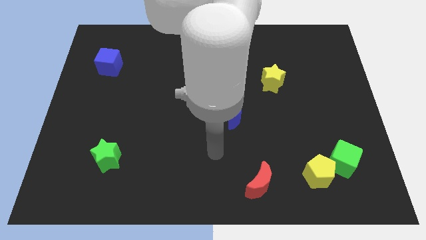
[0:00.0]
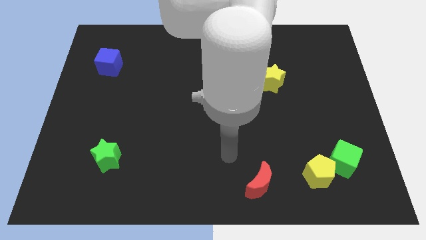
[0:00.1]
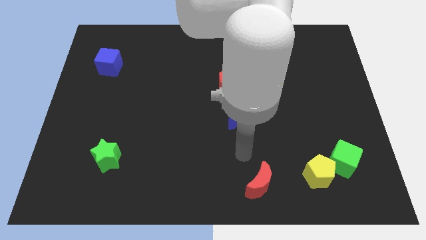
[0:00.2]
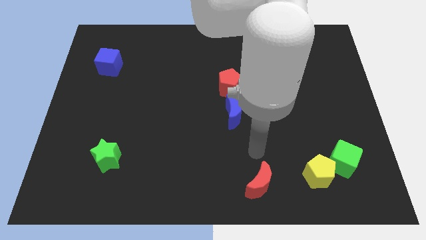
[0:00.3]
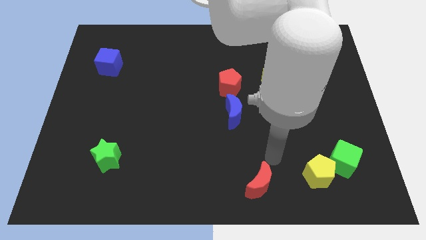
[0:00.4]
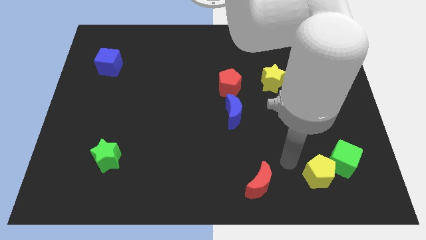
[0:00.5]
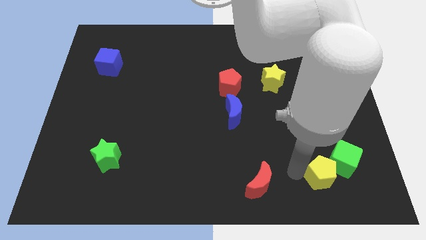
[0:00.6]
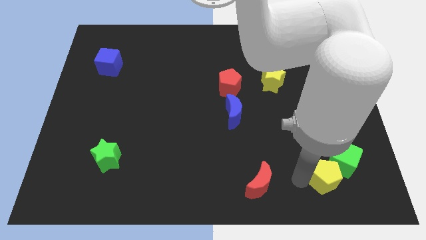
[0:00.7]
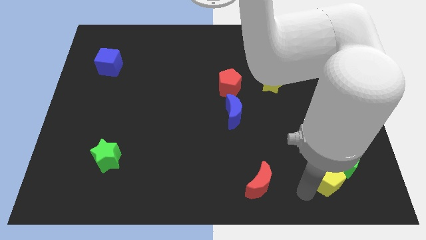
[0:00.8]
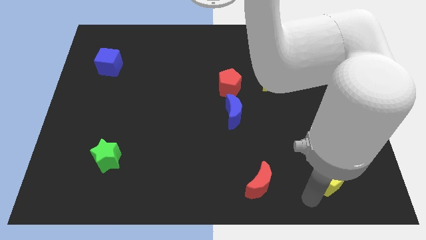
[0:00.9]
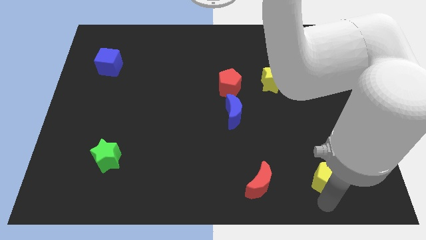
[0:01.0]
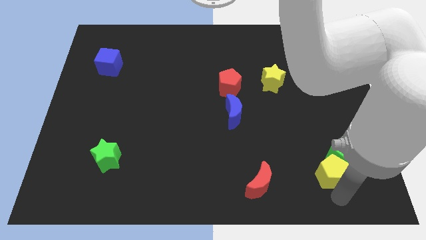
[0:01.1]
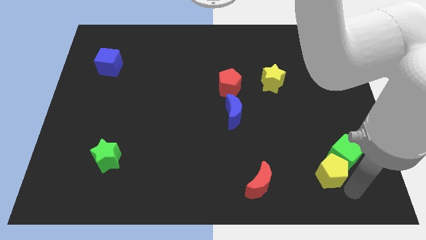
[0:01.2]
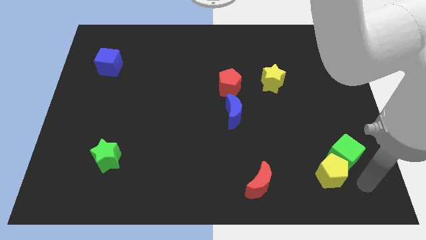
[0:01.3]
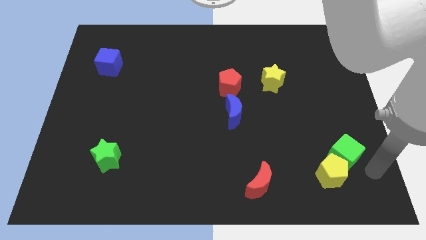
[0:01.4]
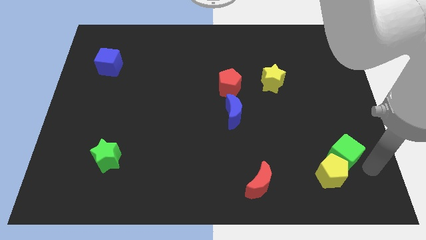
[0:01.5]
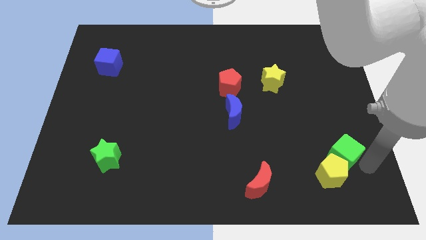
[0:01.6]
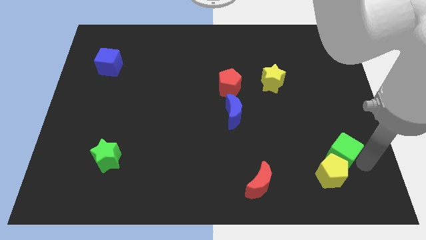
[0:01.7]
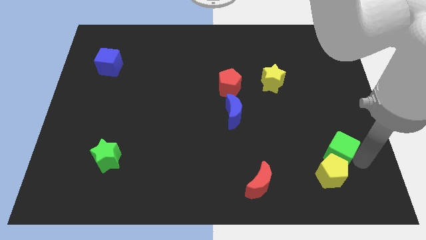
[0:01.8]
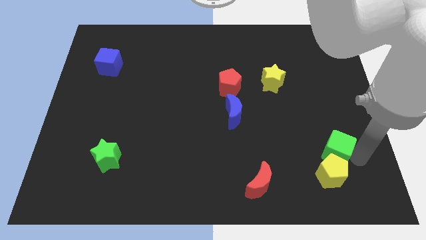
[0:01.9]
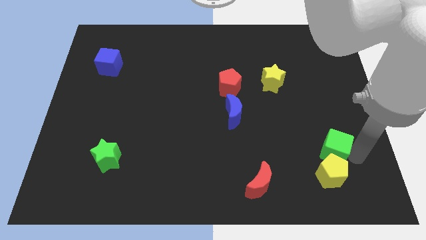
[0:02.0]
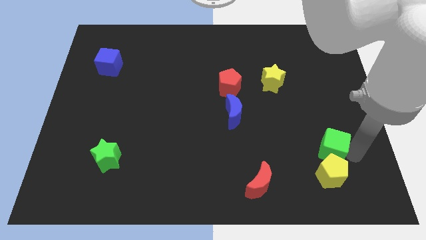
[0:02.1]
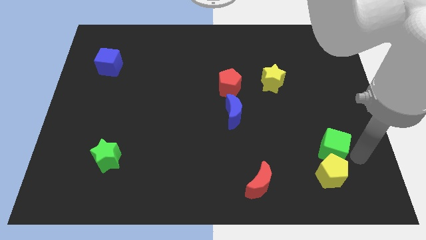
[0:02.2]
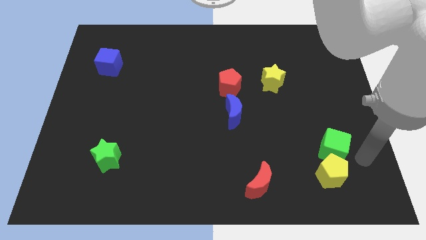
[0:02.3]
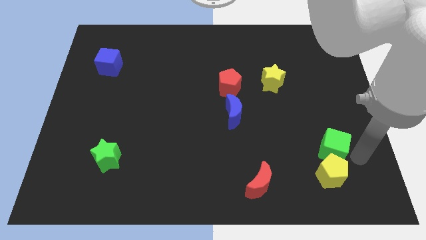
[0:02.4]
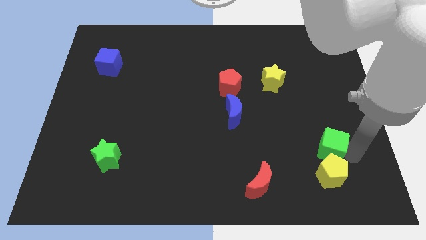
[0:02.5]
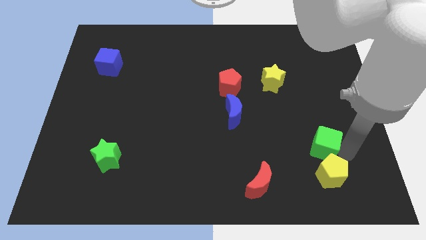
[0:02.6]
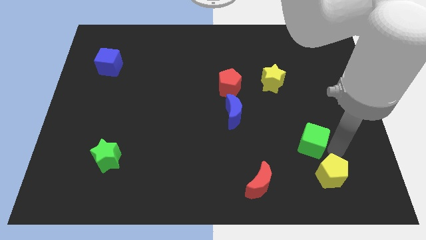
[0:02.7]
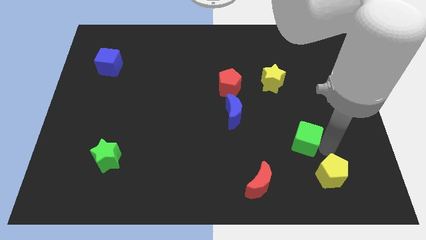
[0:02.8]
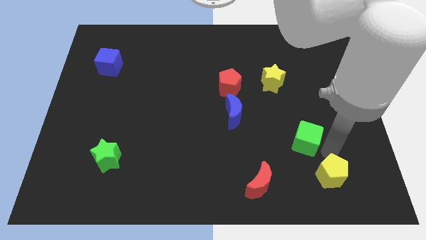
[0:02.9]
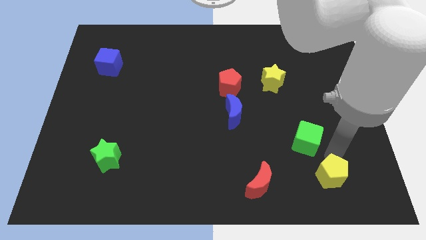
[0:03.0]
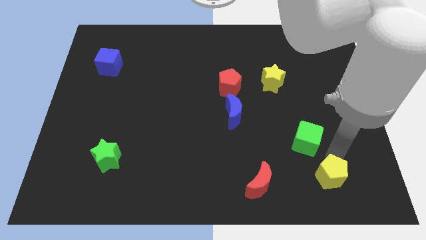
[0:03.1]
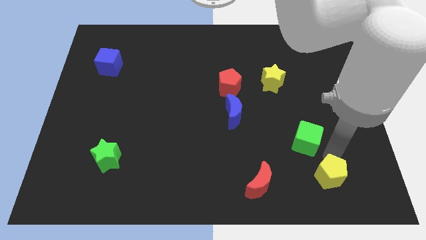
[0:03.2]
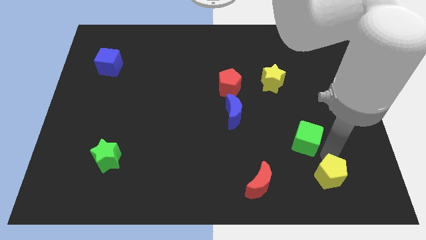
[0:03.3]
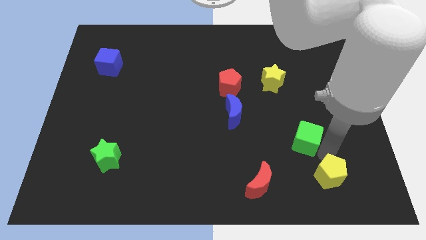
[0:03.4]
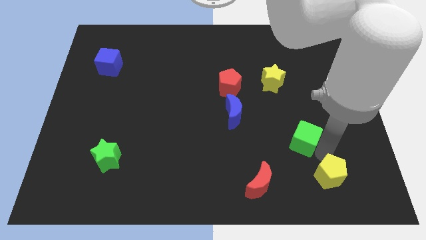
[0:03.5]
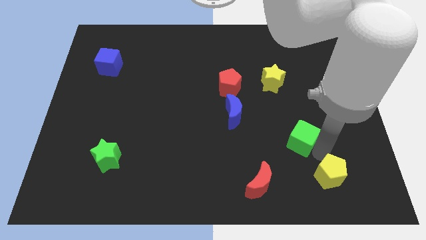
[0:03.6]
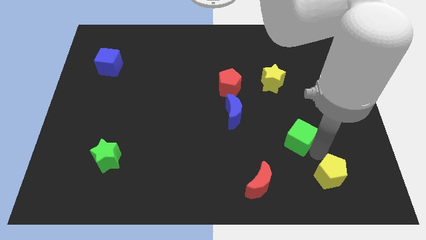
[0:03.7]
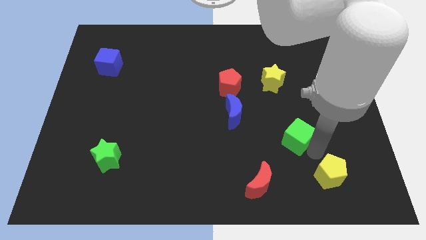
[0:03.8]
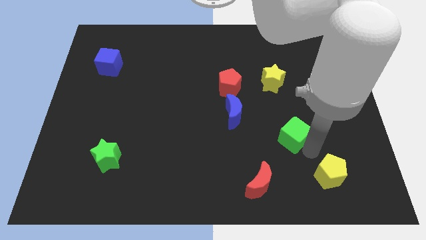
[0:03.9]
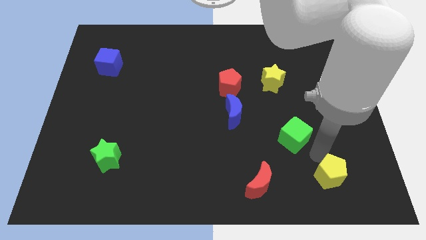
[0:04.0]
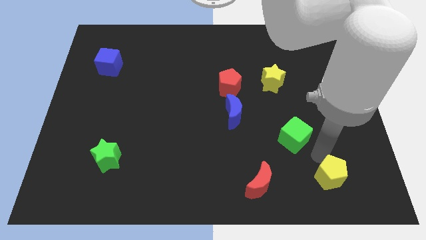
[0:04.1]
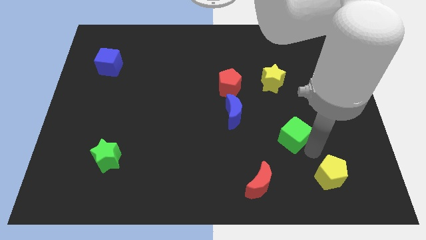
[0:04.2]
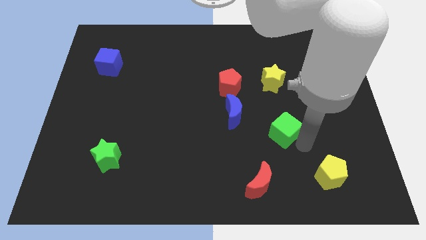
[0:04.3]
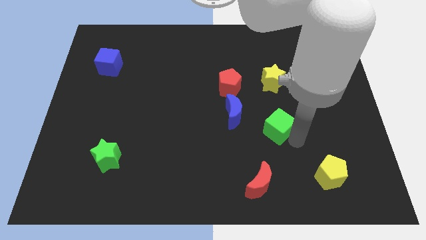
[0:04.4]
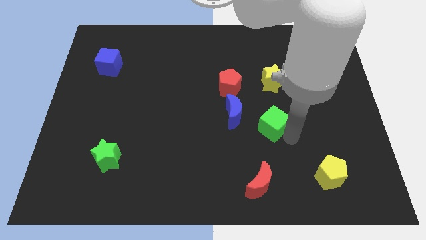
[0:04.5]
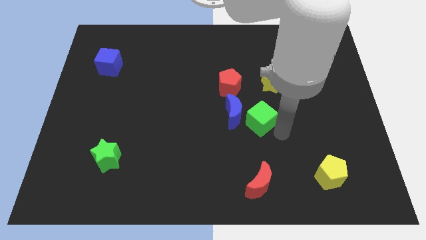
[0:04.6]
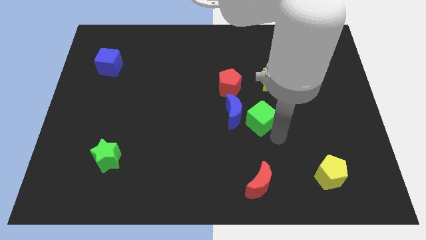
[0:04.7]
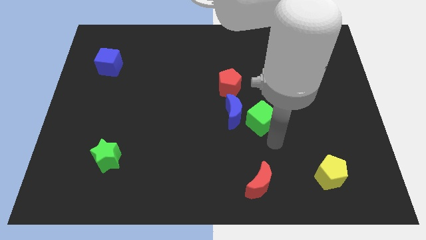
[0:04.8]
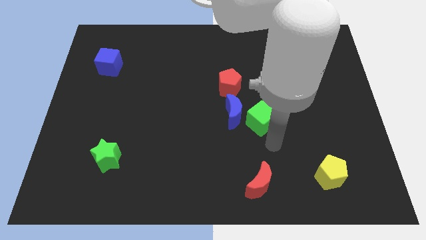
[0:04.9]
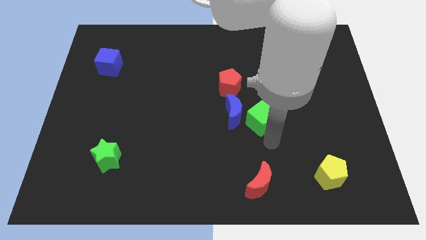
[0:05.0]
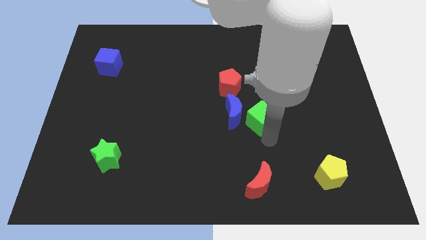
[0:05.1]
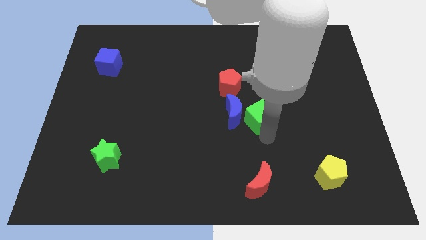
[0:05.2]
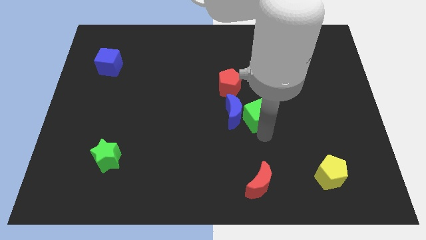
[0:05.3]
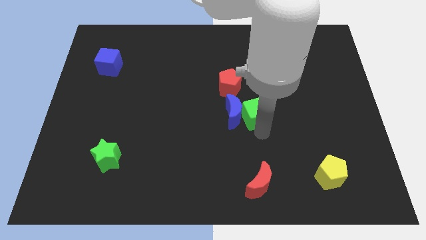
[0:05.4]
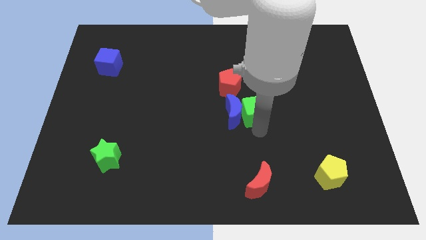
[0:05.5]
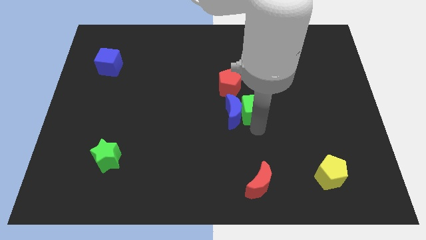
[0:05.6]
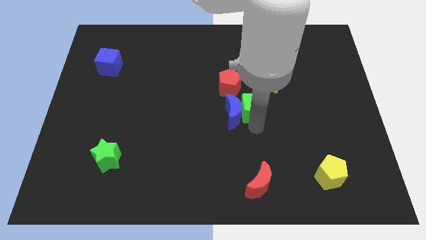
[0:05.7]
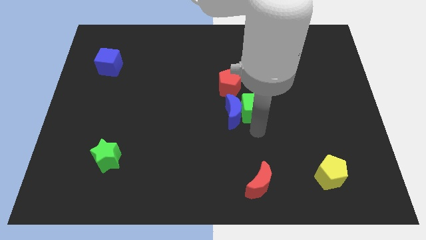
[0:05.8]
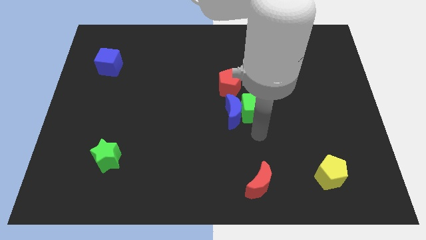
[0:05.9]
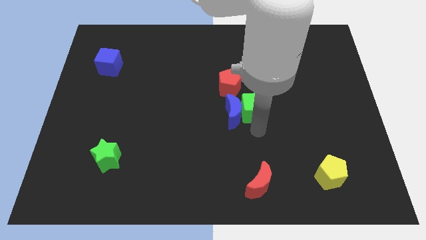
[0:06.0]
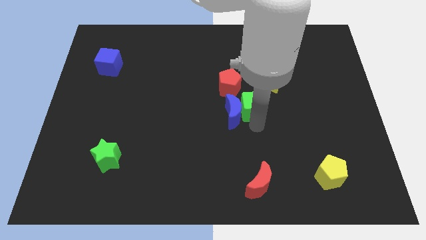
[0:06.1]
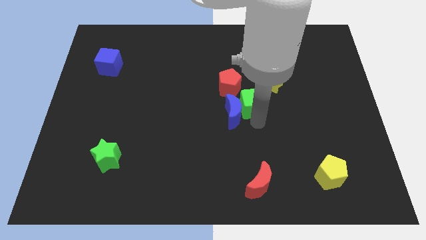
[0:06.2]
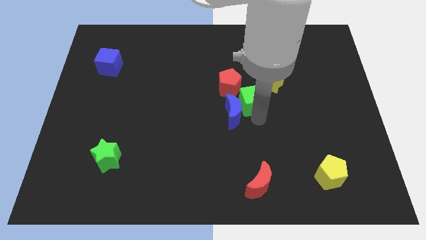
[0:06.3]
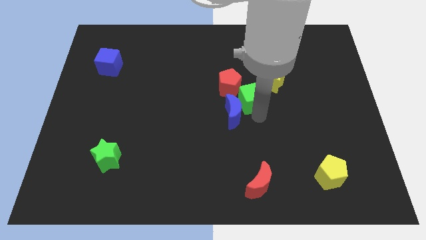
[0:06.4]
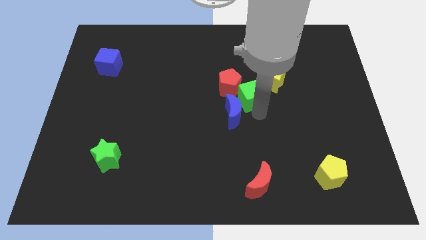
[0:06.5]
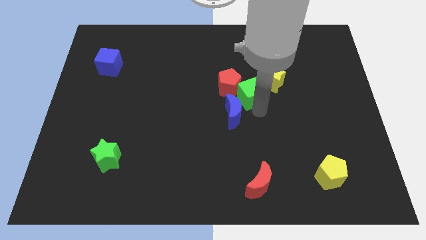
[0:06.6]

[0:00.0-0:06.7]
move the green cube to the red pentagon

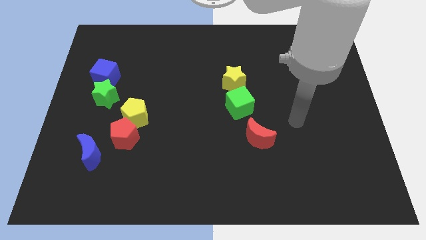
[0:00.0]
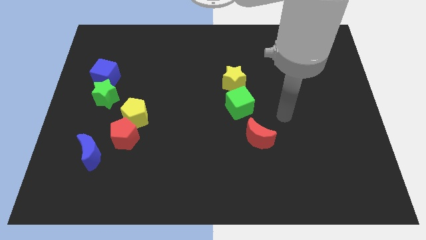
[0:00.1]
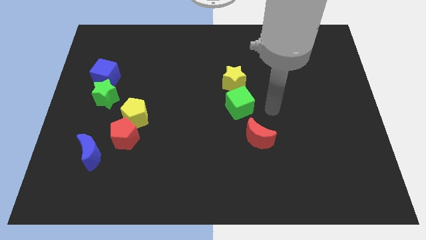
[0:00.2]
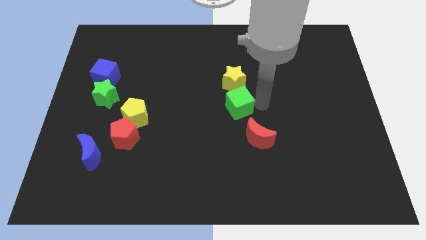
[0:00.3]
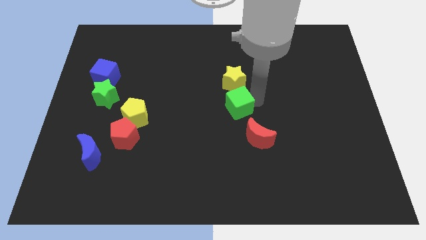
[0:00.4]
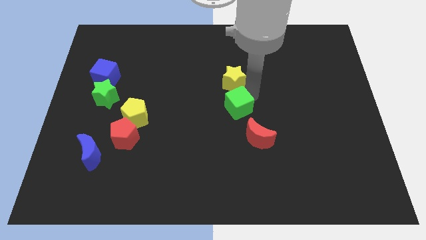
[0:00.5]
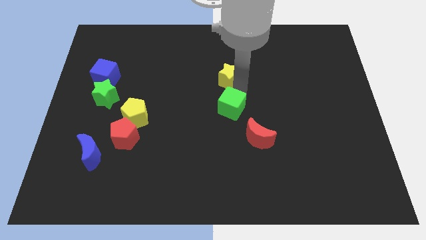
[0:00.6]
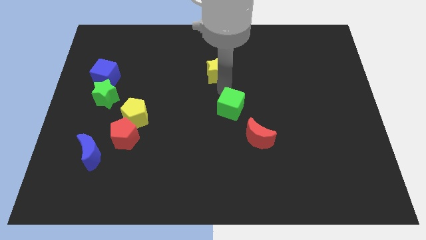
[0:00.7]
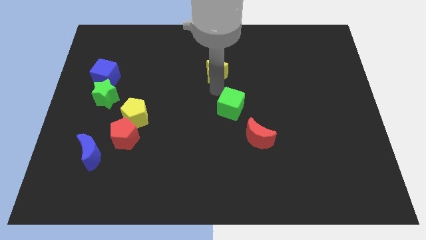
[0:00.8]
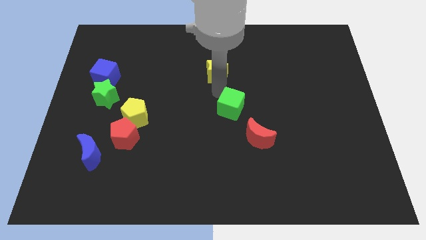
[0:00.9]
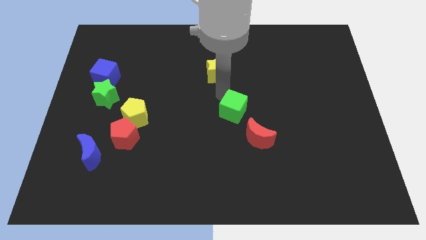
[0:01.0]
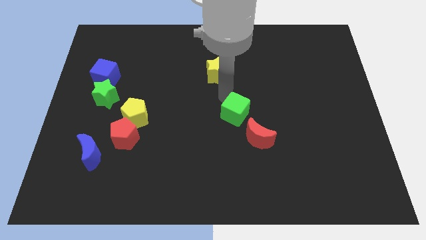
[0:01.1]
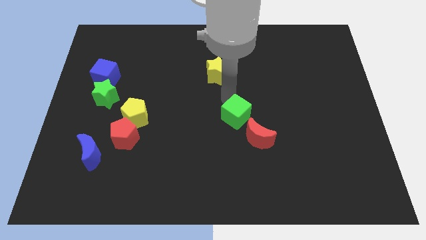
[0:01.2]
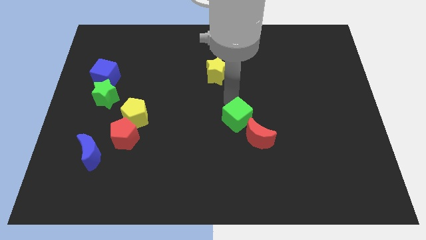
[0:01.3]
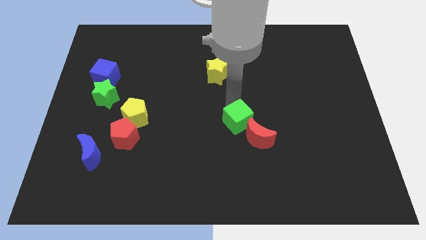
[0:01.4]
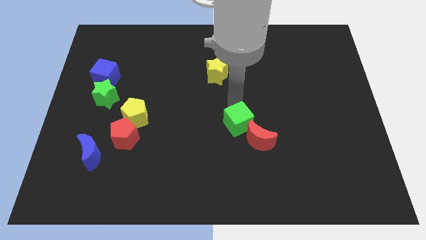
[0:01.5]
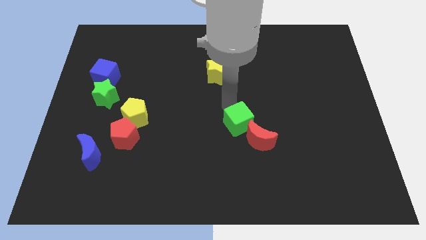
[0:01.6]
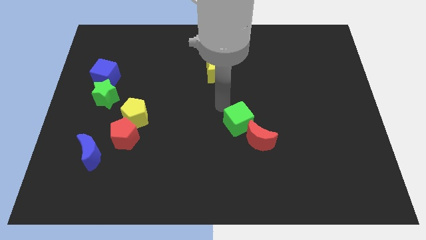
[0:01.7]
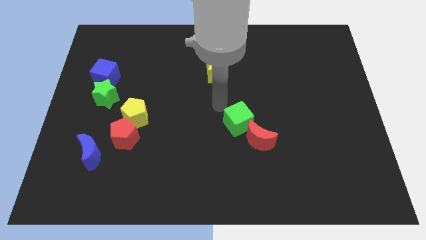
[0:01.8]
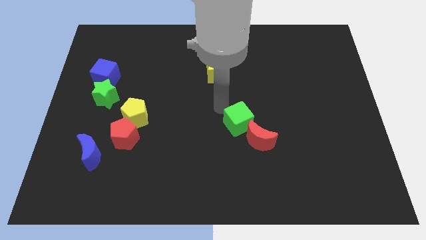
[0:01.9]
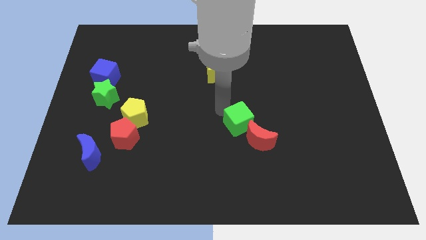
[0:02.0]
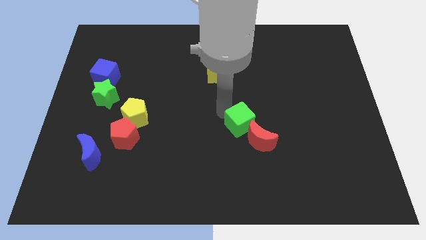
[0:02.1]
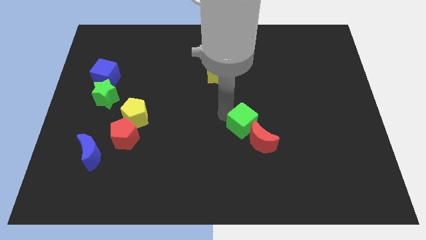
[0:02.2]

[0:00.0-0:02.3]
slide the green cube towards the red moon
